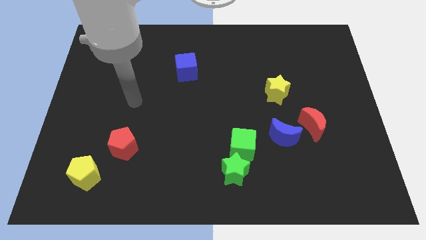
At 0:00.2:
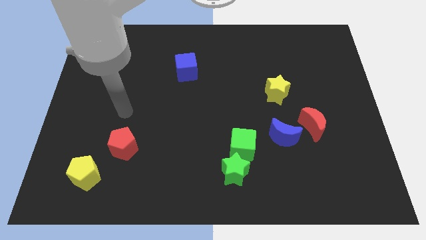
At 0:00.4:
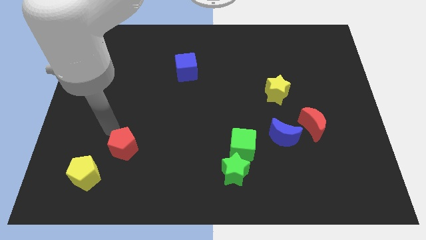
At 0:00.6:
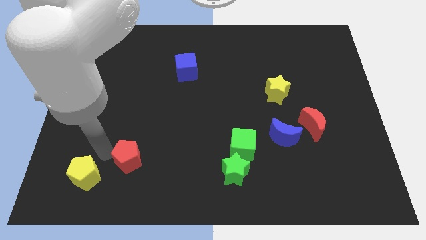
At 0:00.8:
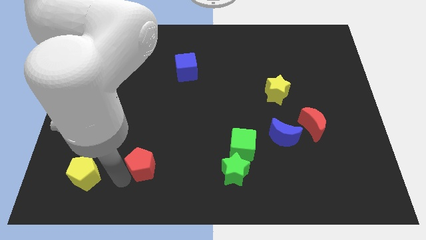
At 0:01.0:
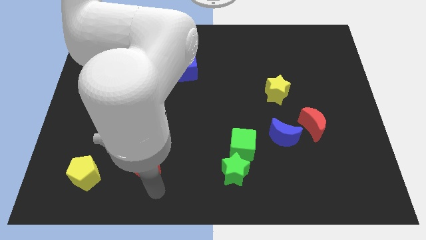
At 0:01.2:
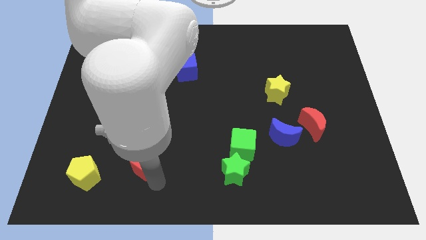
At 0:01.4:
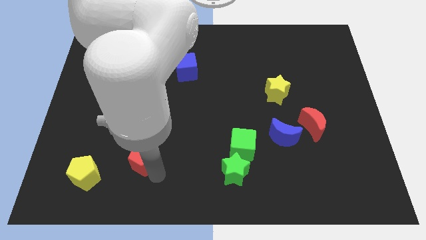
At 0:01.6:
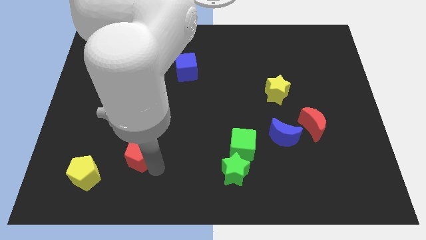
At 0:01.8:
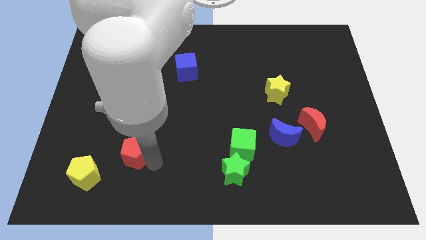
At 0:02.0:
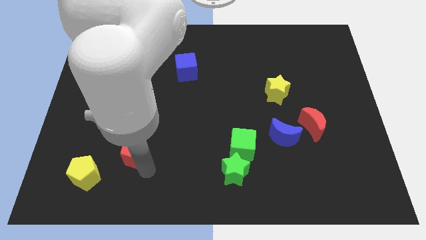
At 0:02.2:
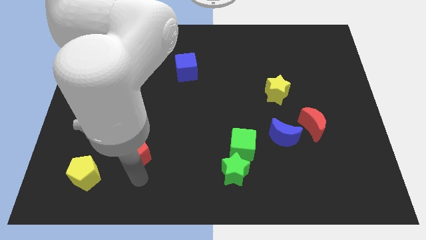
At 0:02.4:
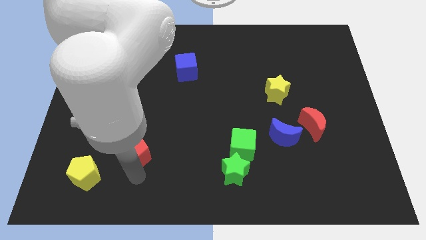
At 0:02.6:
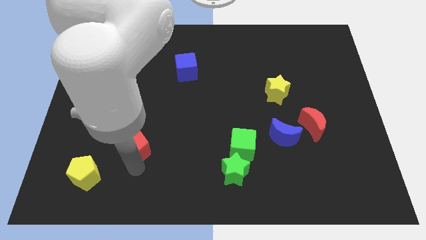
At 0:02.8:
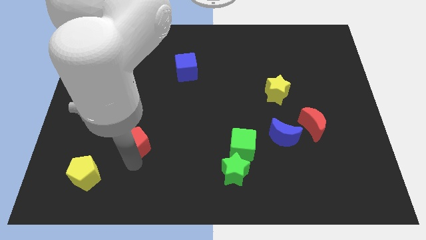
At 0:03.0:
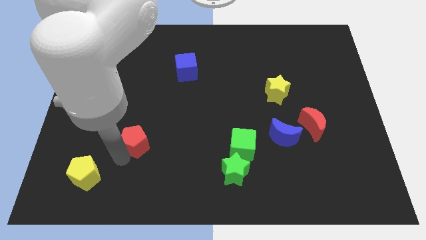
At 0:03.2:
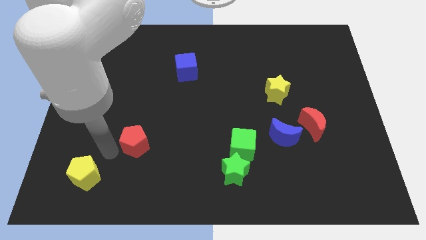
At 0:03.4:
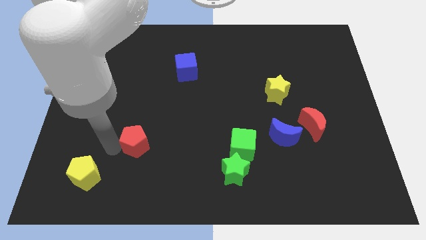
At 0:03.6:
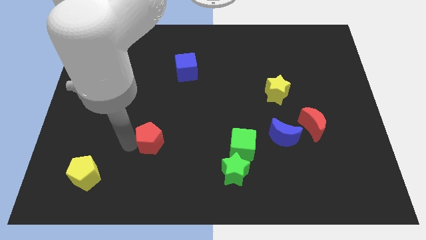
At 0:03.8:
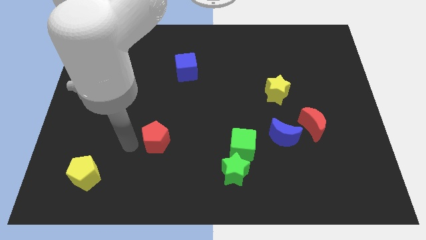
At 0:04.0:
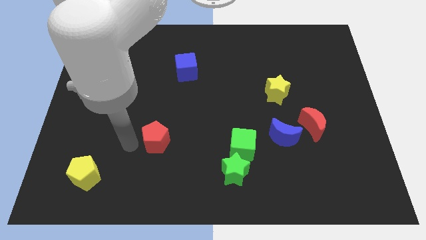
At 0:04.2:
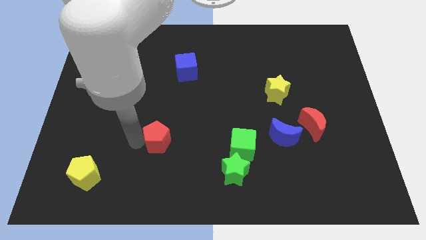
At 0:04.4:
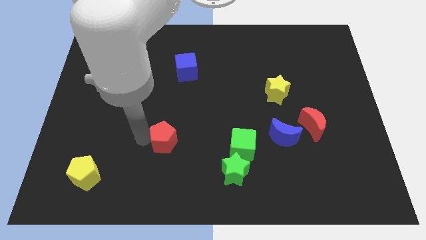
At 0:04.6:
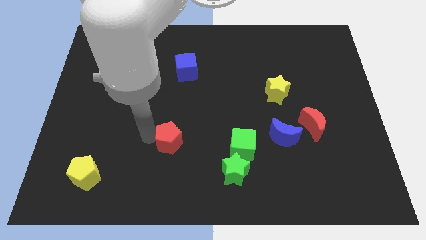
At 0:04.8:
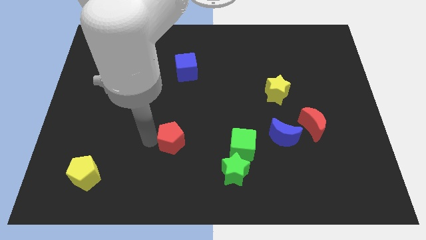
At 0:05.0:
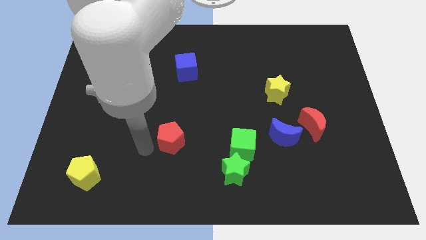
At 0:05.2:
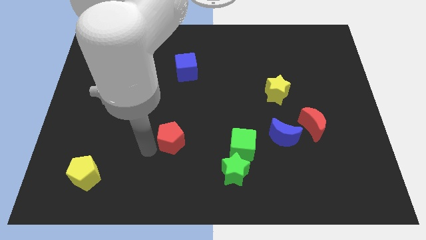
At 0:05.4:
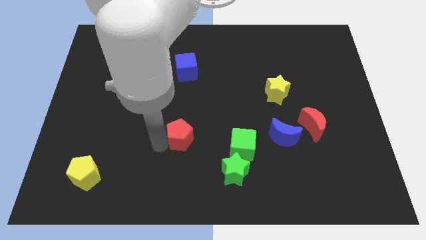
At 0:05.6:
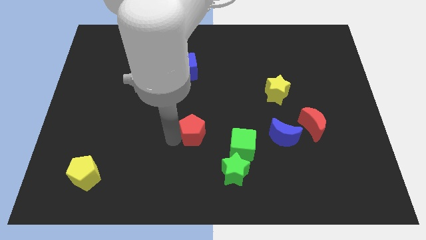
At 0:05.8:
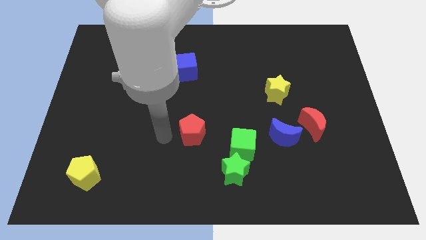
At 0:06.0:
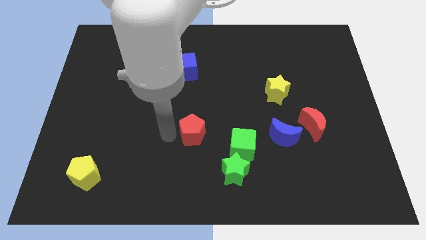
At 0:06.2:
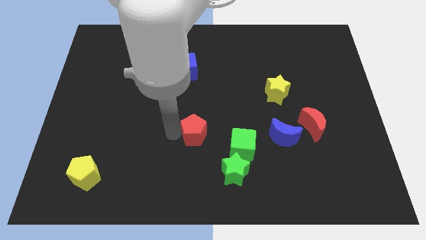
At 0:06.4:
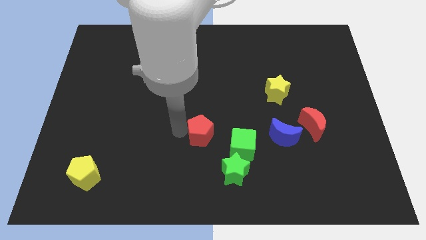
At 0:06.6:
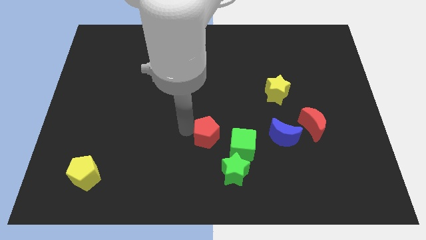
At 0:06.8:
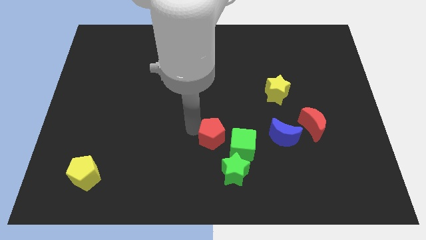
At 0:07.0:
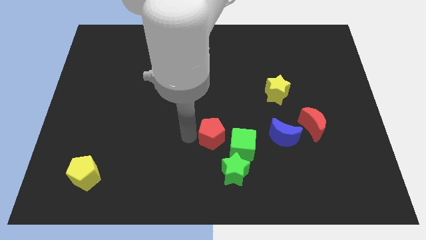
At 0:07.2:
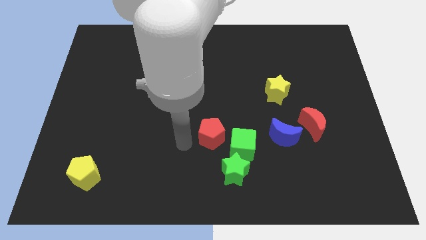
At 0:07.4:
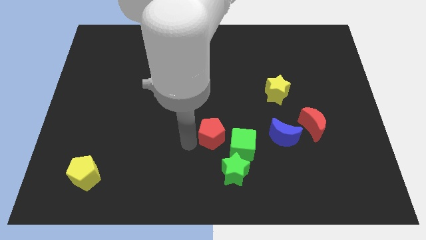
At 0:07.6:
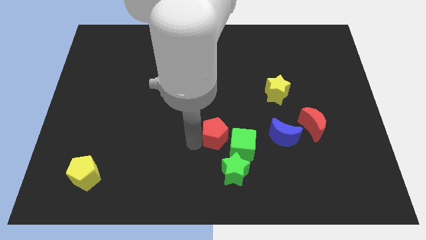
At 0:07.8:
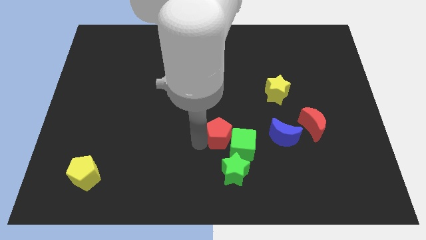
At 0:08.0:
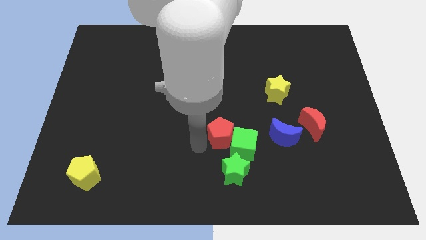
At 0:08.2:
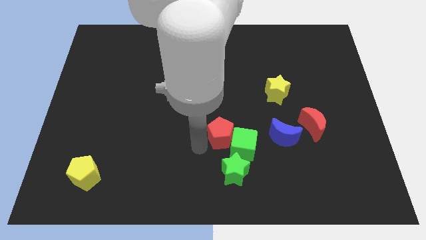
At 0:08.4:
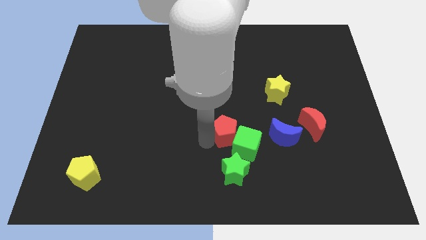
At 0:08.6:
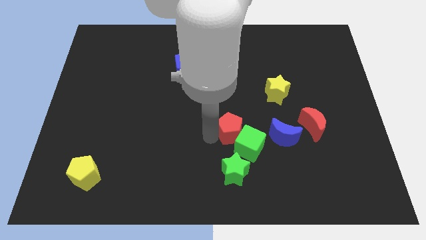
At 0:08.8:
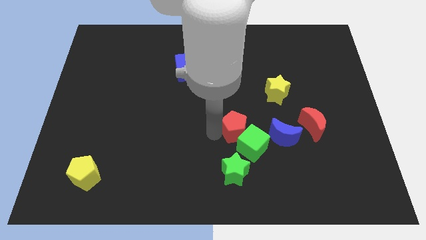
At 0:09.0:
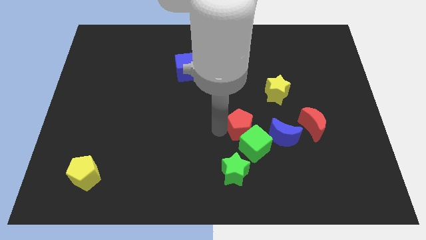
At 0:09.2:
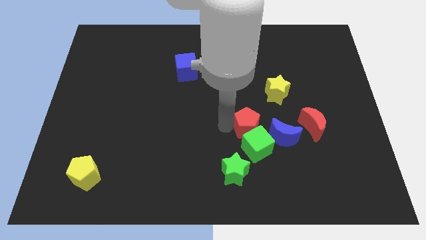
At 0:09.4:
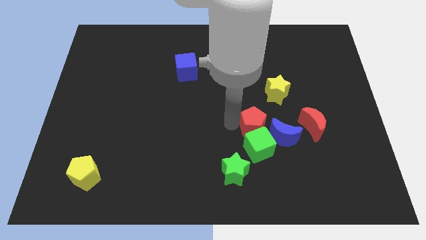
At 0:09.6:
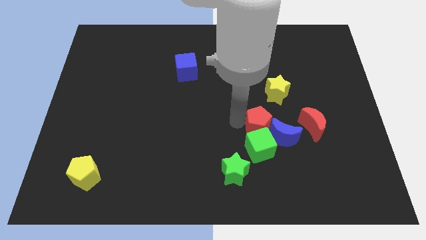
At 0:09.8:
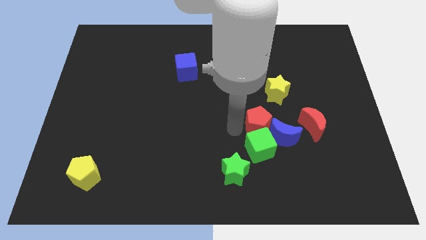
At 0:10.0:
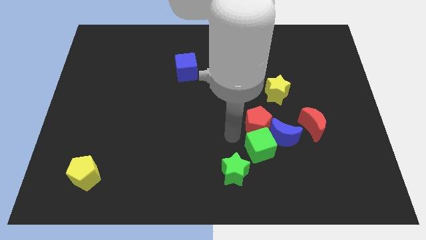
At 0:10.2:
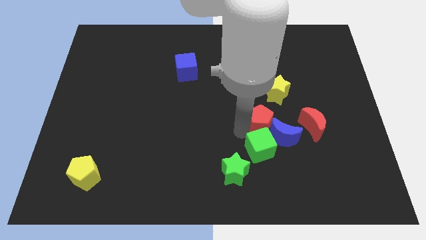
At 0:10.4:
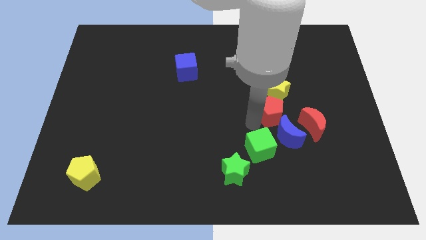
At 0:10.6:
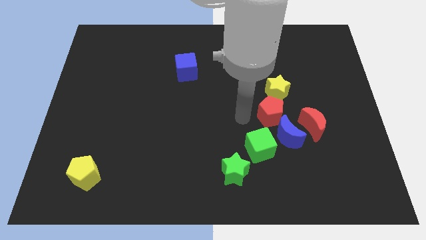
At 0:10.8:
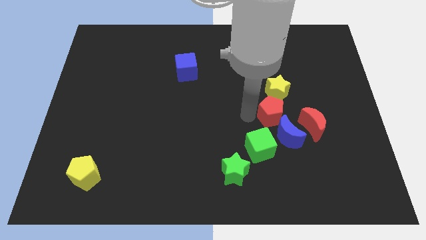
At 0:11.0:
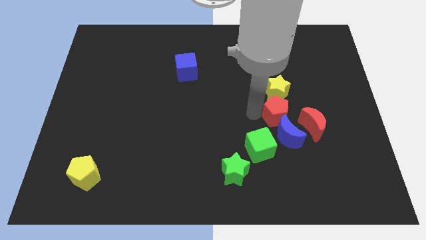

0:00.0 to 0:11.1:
slide the red pentagon to the bottom right of the yellow star
